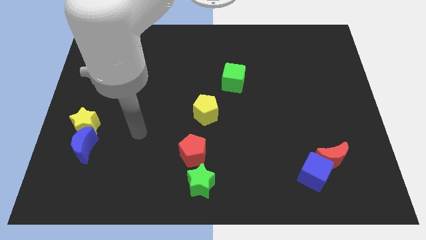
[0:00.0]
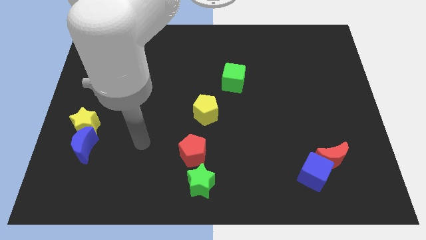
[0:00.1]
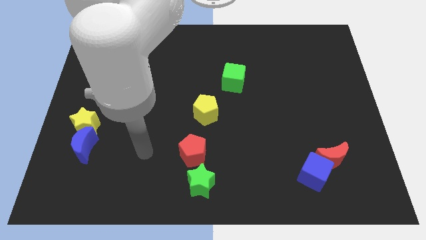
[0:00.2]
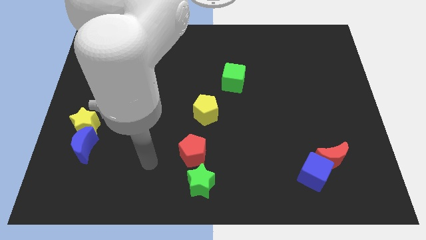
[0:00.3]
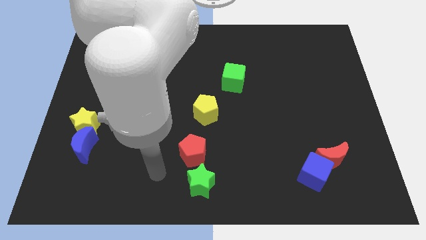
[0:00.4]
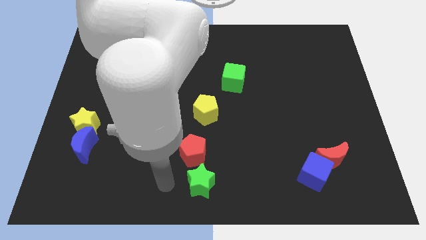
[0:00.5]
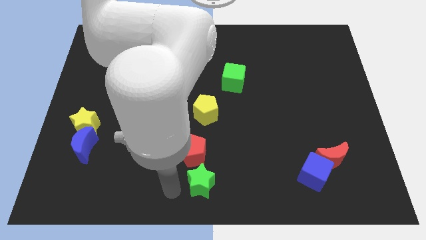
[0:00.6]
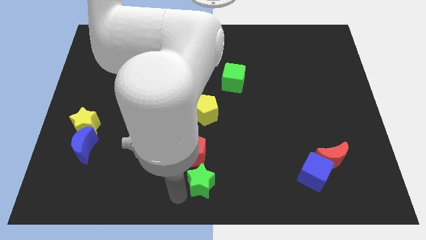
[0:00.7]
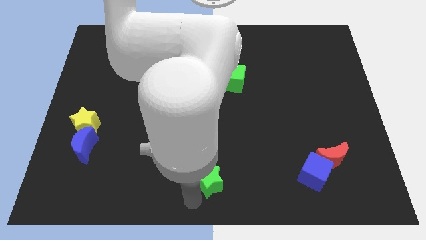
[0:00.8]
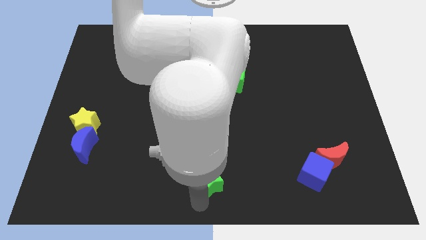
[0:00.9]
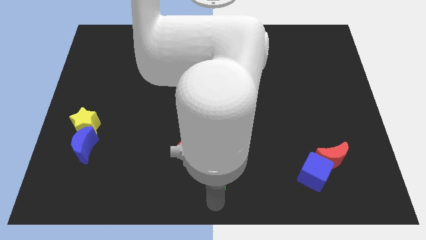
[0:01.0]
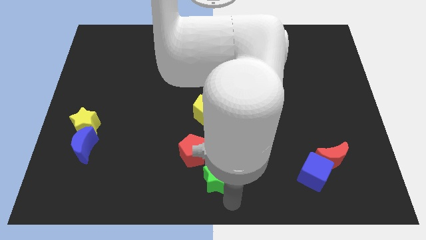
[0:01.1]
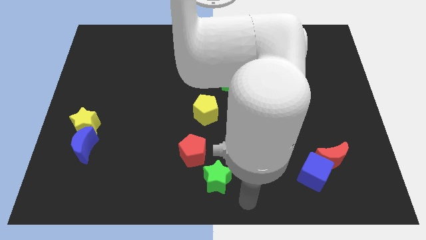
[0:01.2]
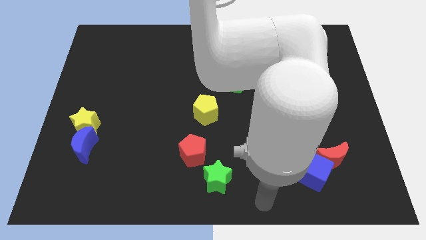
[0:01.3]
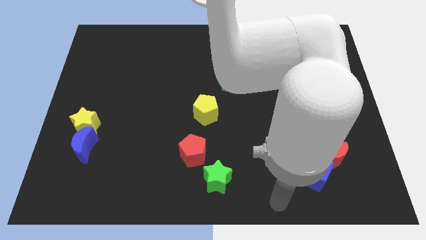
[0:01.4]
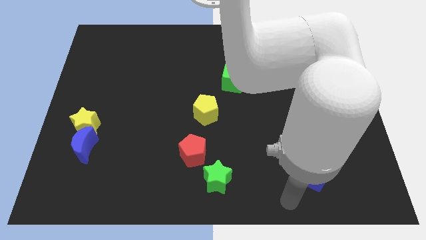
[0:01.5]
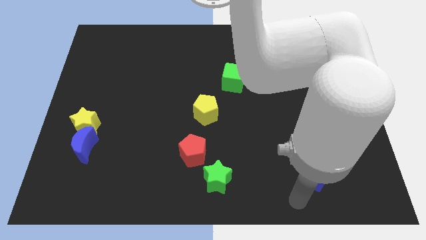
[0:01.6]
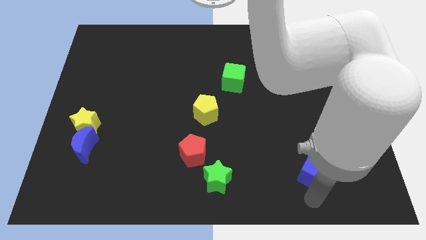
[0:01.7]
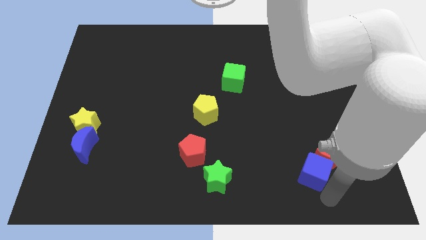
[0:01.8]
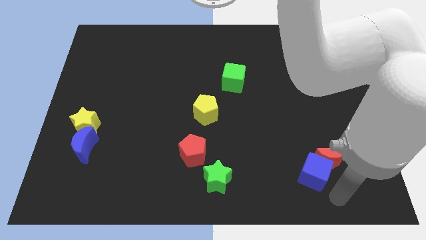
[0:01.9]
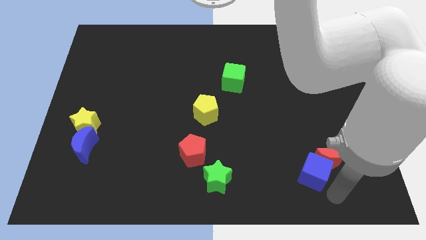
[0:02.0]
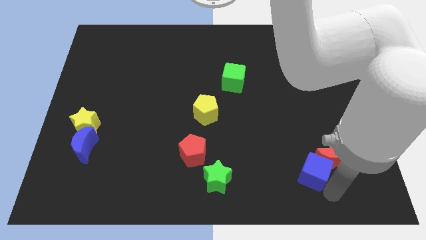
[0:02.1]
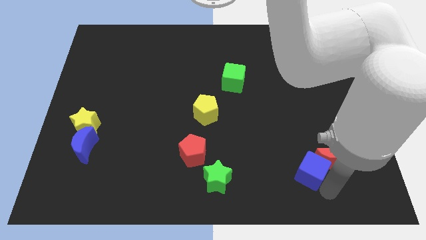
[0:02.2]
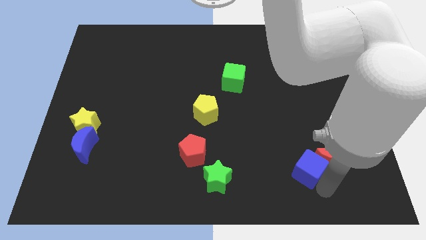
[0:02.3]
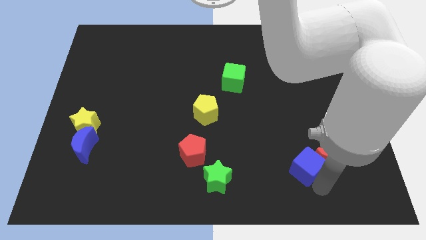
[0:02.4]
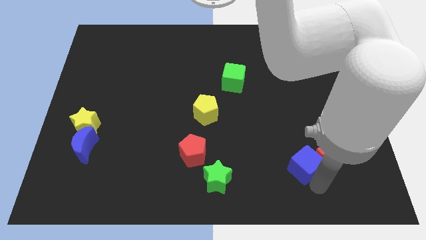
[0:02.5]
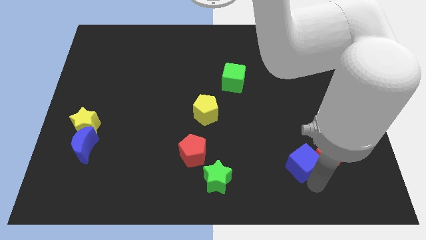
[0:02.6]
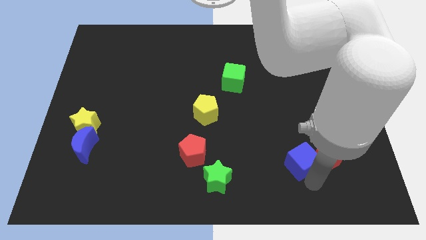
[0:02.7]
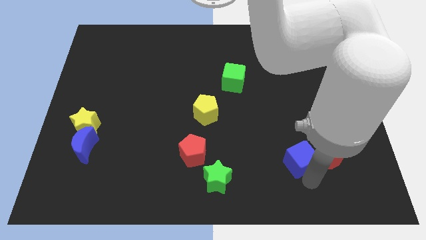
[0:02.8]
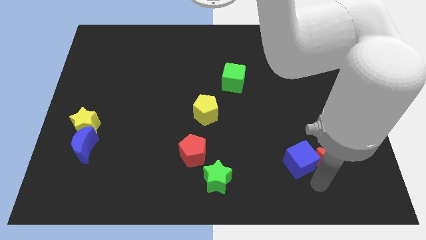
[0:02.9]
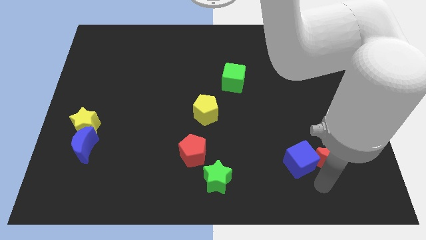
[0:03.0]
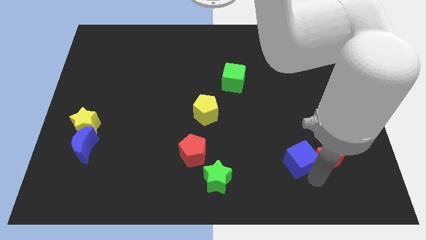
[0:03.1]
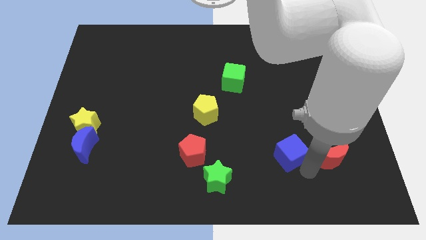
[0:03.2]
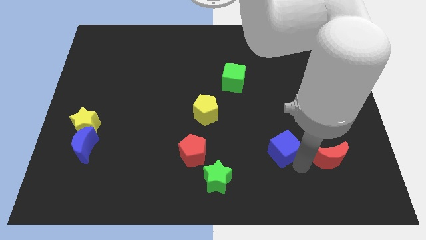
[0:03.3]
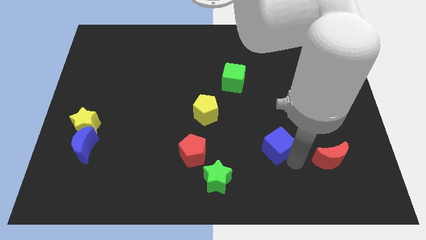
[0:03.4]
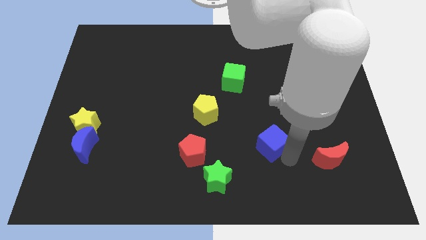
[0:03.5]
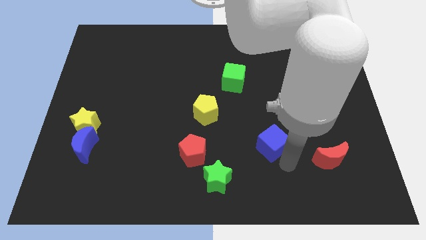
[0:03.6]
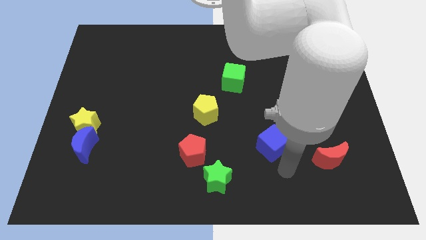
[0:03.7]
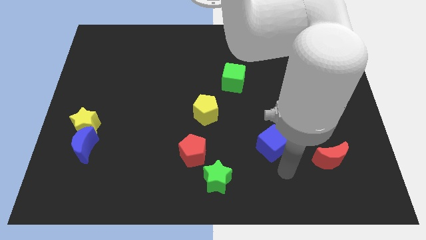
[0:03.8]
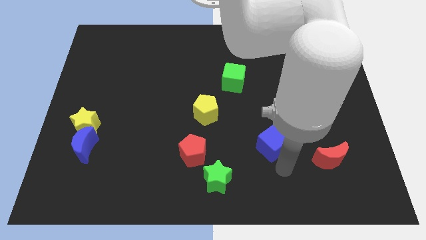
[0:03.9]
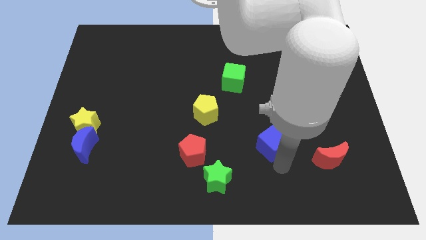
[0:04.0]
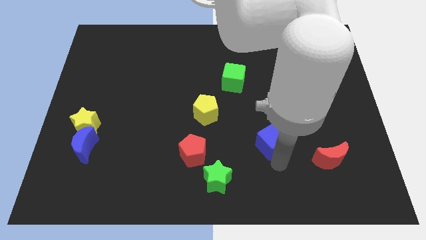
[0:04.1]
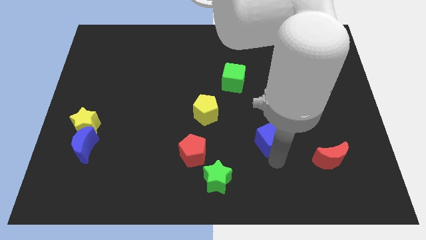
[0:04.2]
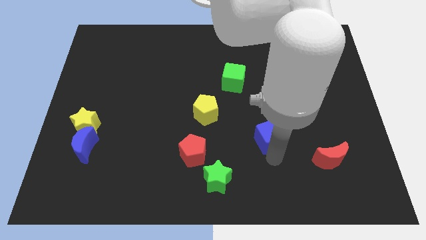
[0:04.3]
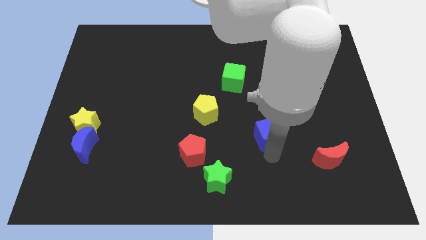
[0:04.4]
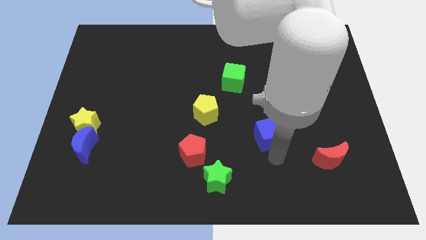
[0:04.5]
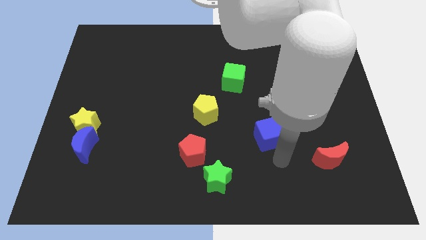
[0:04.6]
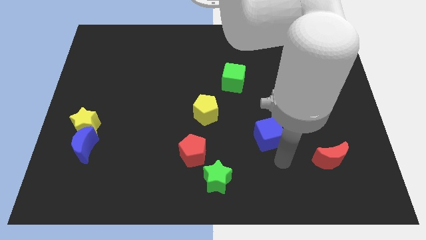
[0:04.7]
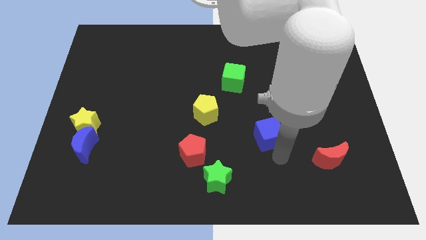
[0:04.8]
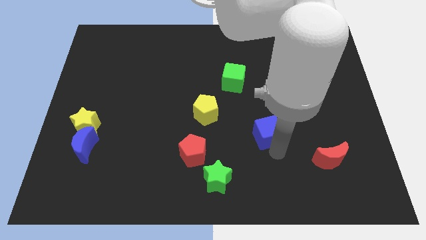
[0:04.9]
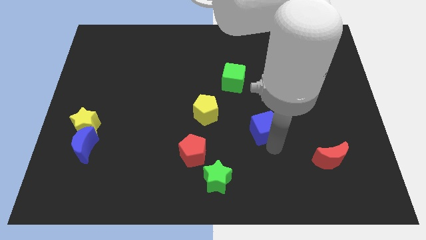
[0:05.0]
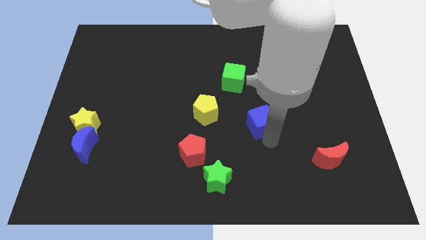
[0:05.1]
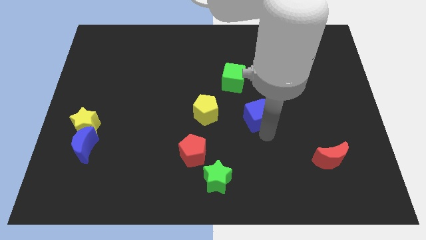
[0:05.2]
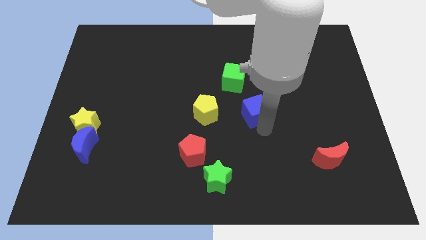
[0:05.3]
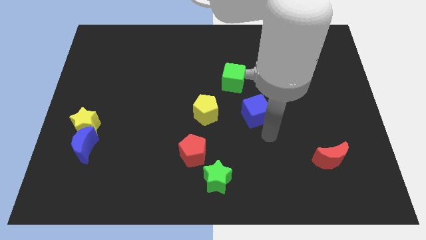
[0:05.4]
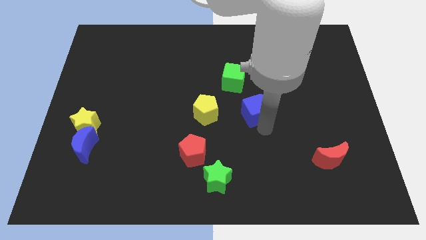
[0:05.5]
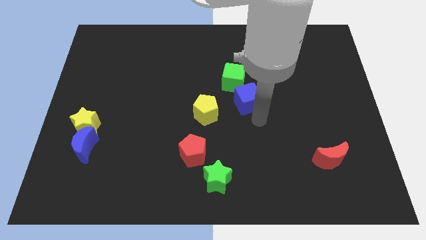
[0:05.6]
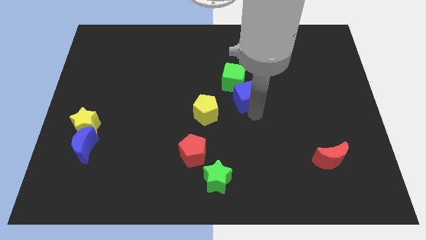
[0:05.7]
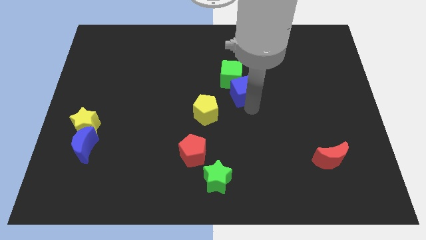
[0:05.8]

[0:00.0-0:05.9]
slide the blue cube to the green cube
